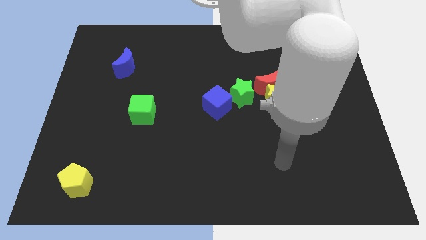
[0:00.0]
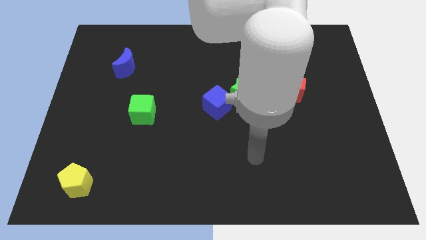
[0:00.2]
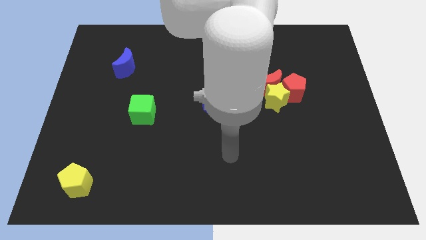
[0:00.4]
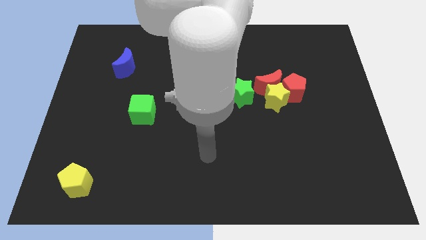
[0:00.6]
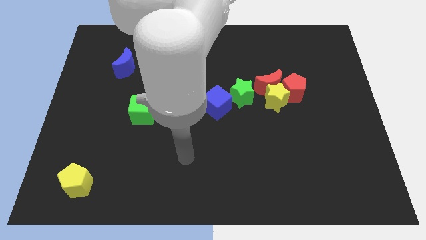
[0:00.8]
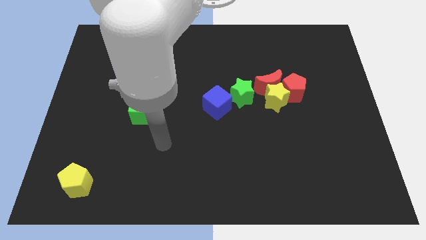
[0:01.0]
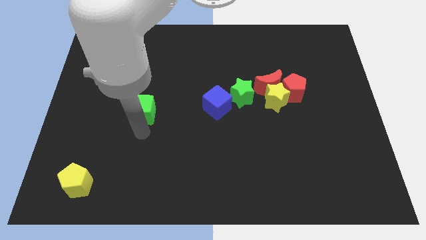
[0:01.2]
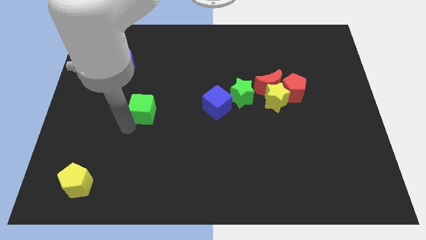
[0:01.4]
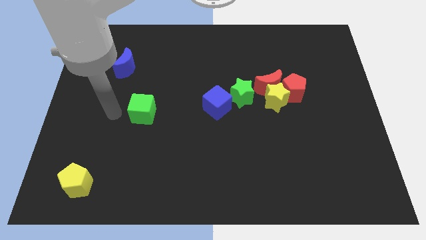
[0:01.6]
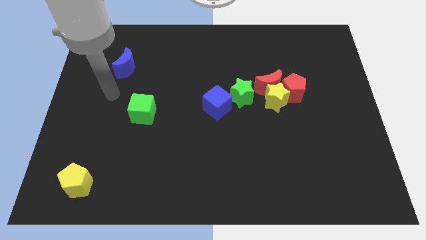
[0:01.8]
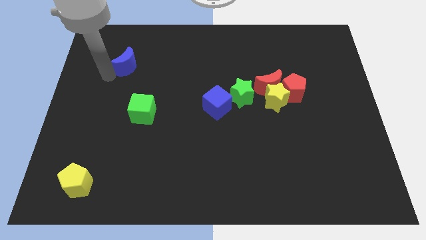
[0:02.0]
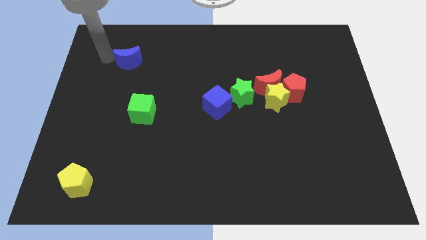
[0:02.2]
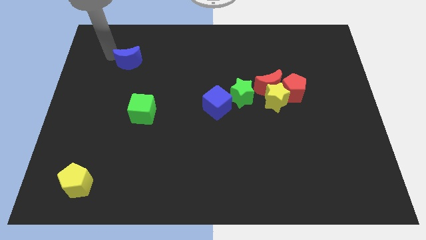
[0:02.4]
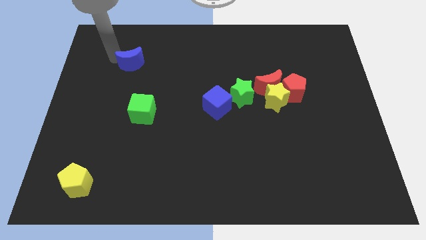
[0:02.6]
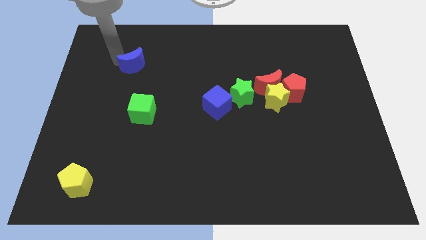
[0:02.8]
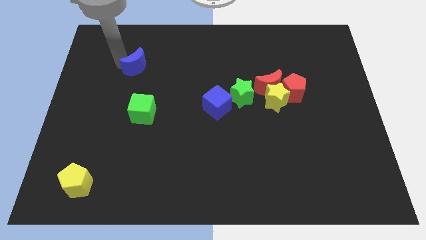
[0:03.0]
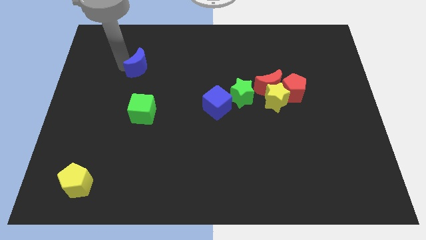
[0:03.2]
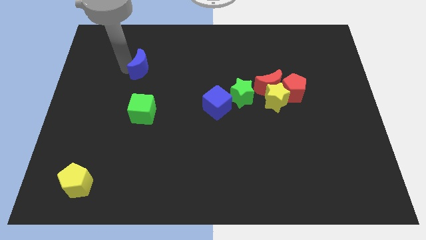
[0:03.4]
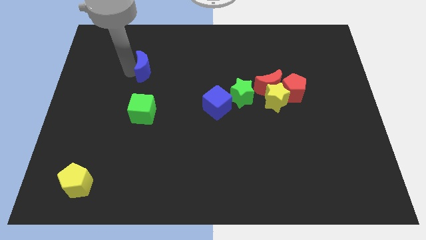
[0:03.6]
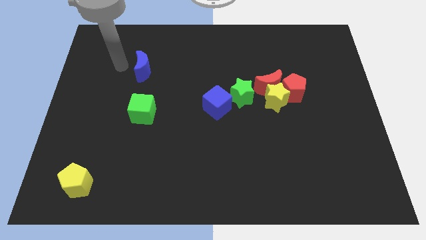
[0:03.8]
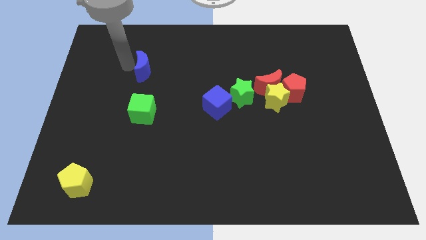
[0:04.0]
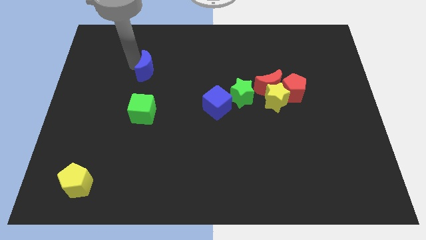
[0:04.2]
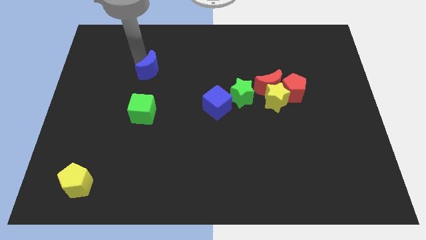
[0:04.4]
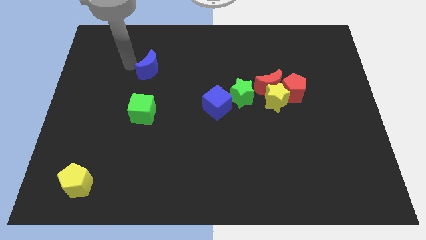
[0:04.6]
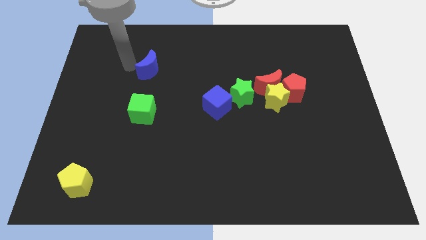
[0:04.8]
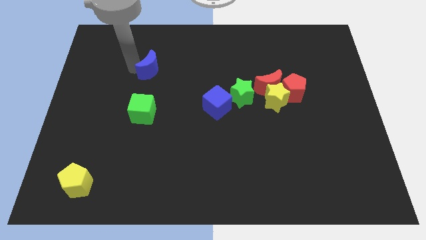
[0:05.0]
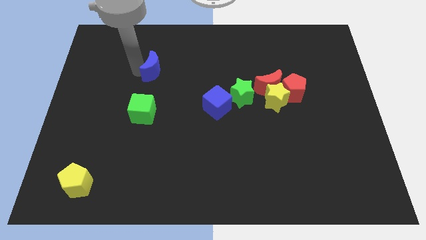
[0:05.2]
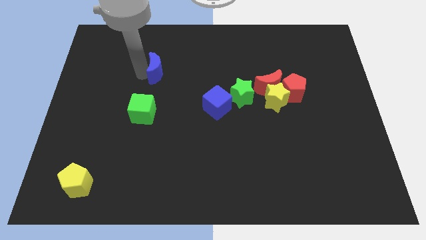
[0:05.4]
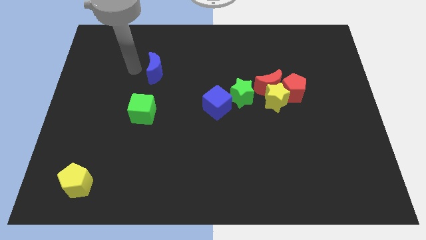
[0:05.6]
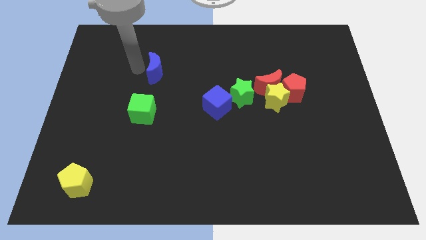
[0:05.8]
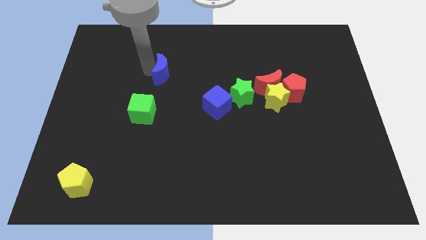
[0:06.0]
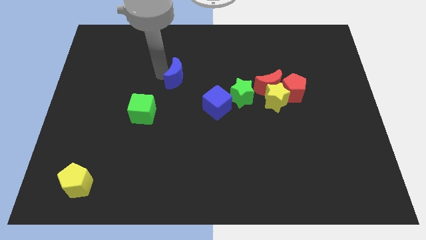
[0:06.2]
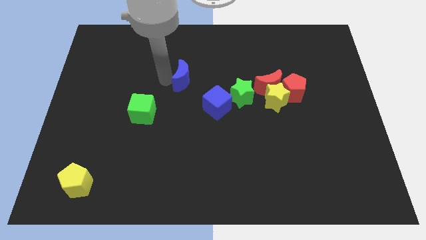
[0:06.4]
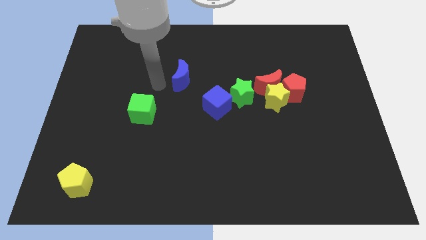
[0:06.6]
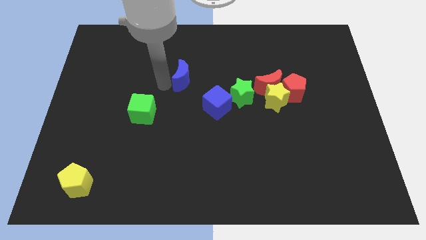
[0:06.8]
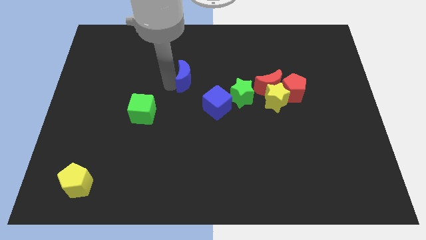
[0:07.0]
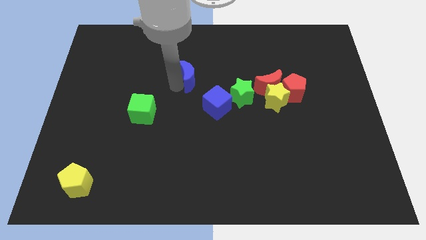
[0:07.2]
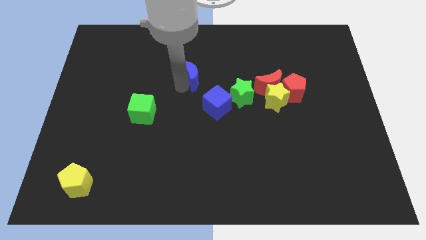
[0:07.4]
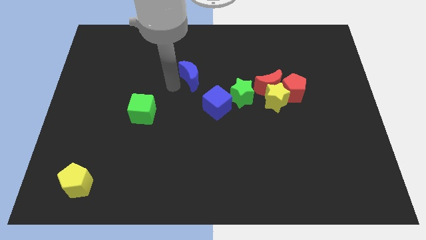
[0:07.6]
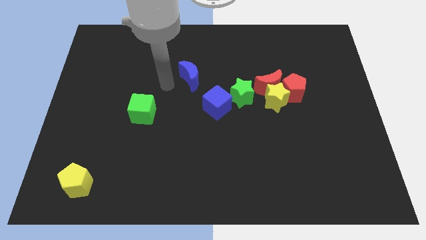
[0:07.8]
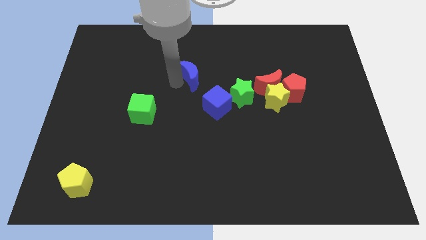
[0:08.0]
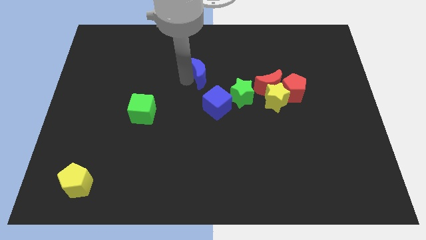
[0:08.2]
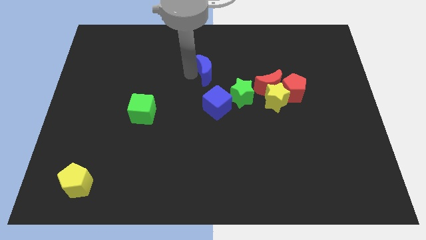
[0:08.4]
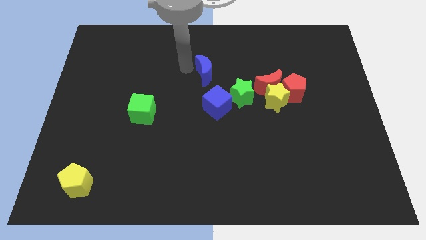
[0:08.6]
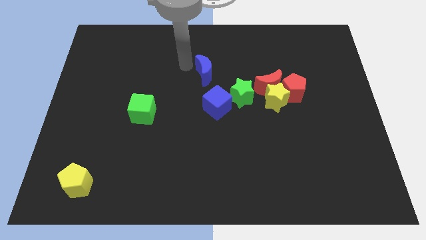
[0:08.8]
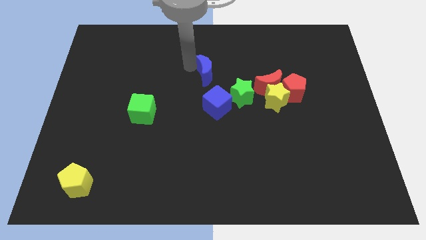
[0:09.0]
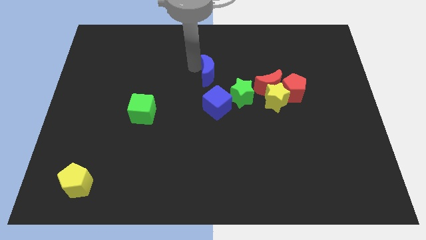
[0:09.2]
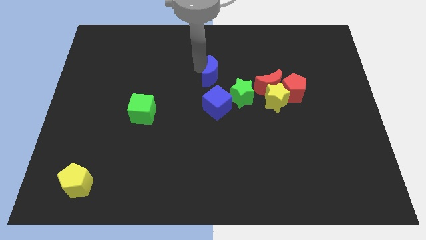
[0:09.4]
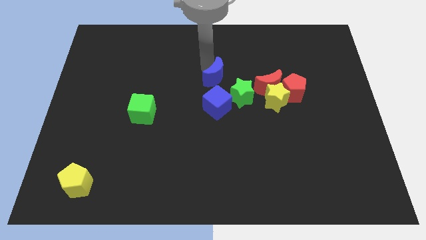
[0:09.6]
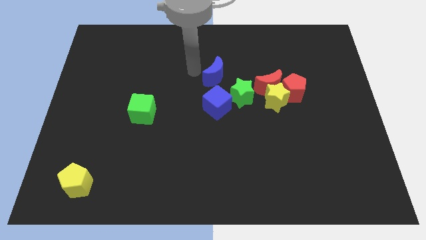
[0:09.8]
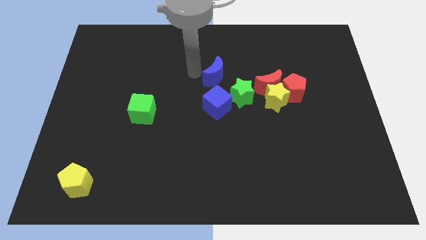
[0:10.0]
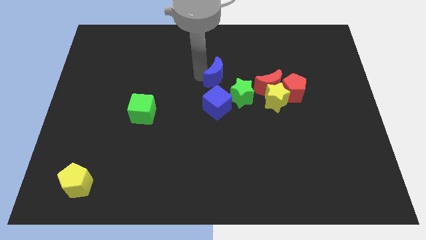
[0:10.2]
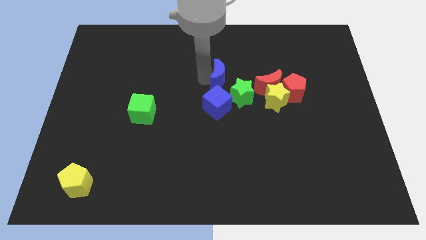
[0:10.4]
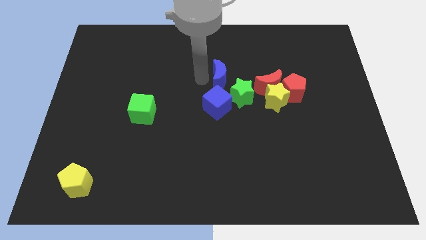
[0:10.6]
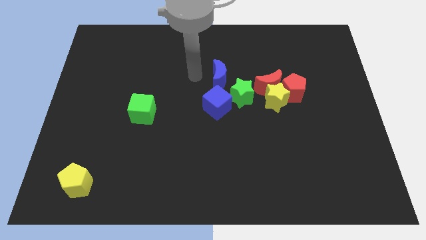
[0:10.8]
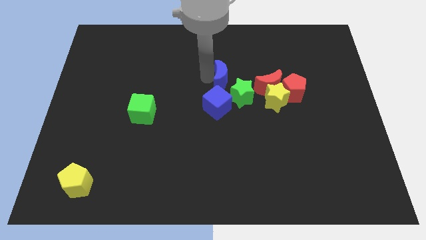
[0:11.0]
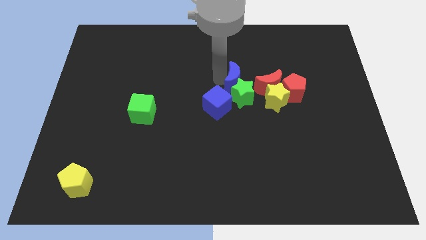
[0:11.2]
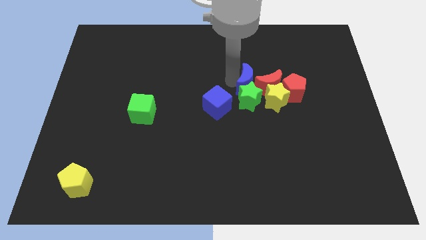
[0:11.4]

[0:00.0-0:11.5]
slide the blue moon to the red moon

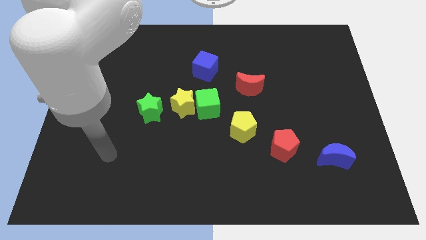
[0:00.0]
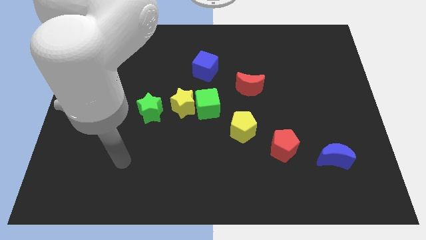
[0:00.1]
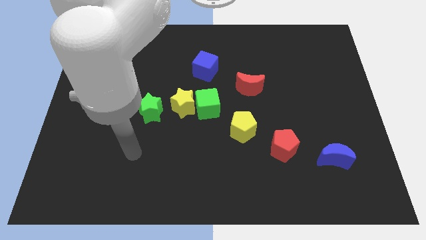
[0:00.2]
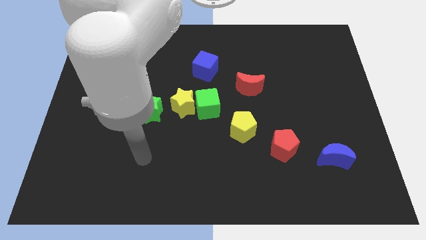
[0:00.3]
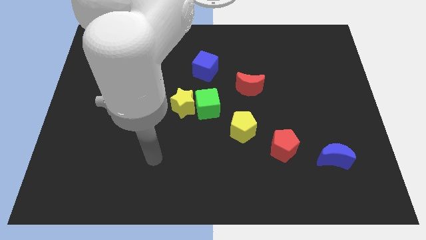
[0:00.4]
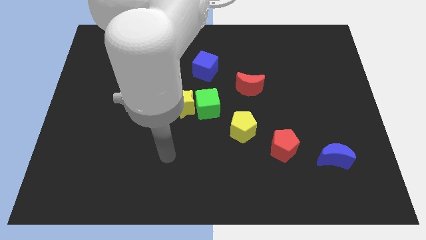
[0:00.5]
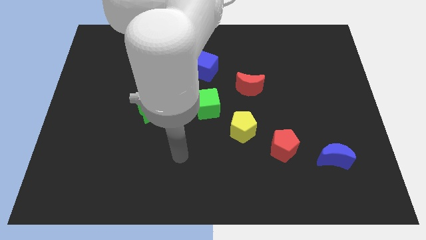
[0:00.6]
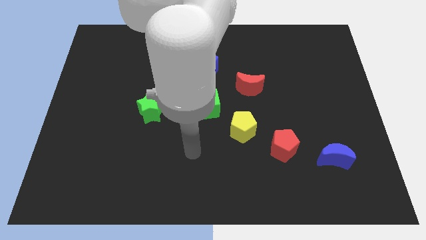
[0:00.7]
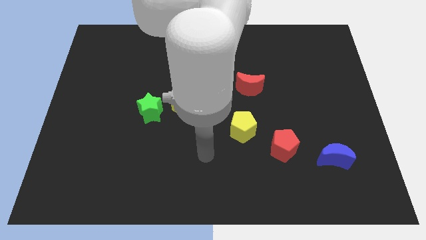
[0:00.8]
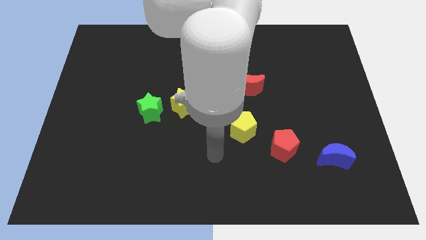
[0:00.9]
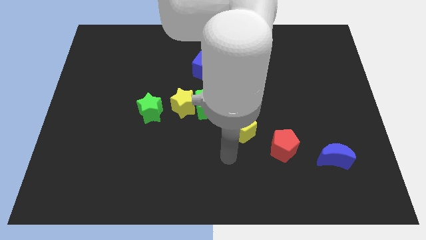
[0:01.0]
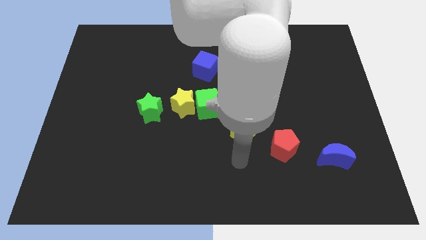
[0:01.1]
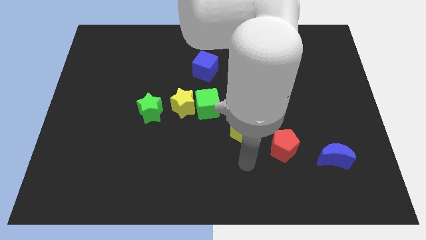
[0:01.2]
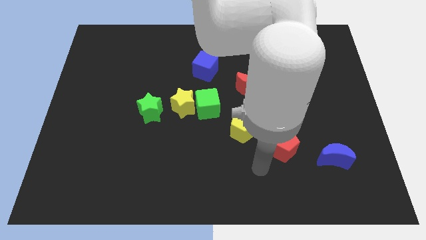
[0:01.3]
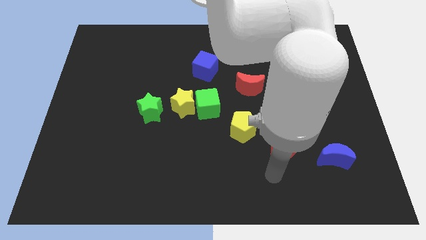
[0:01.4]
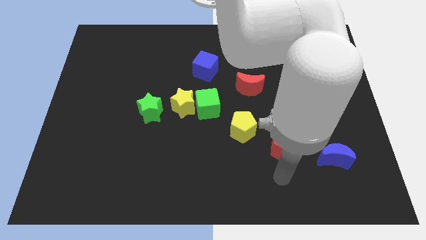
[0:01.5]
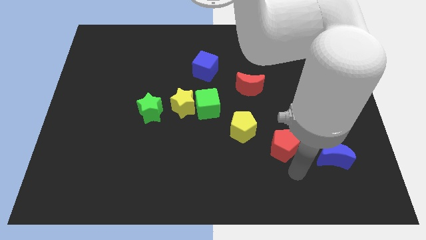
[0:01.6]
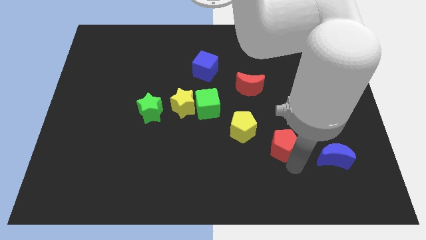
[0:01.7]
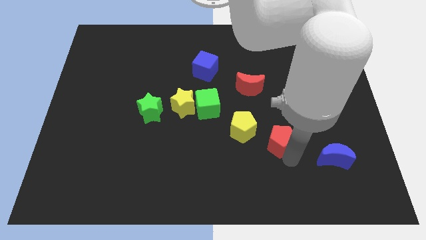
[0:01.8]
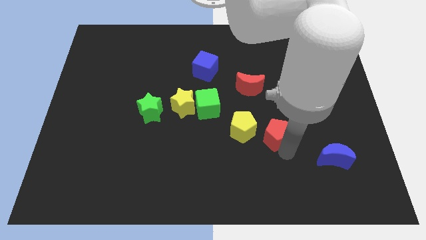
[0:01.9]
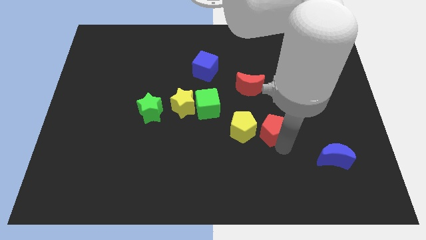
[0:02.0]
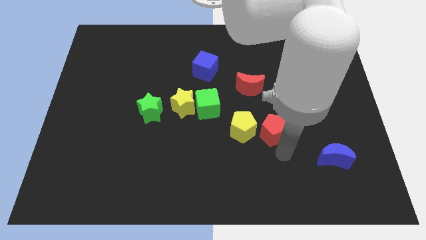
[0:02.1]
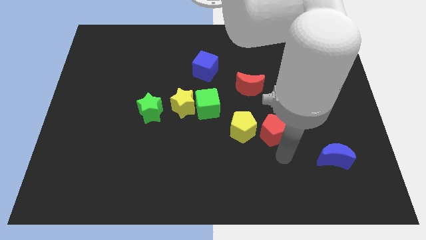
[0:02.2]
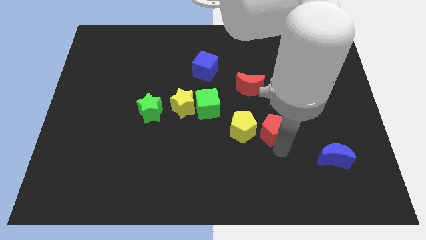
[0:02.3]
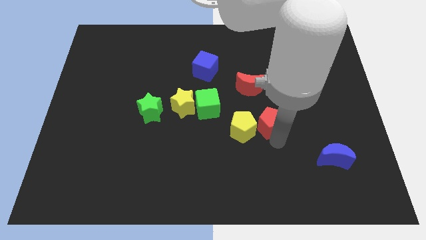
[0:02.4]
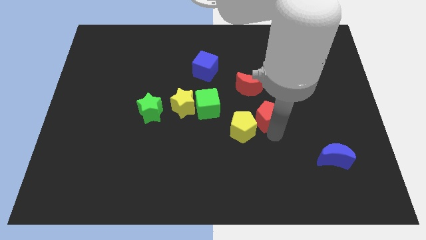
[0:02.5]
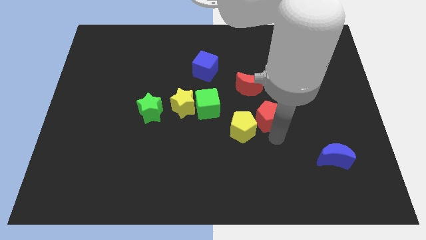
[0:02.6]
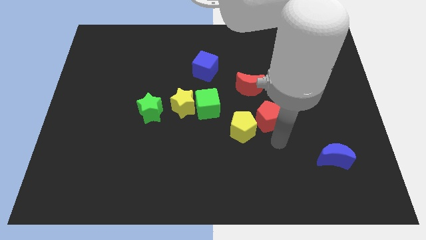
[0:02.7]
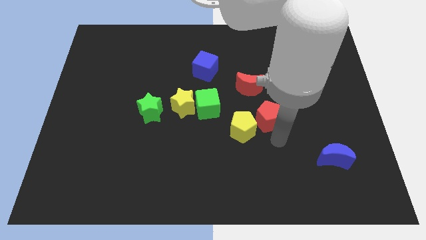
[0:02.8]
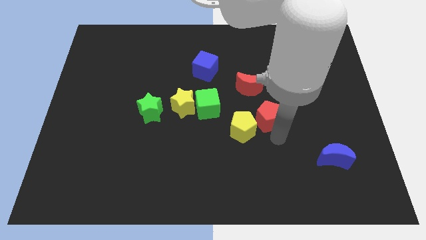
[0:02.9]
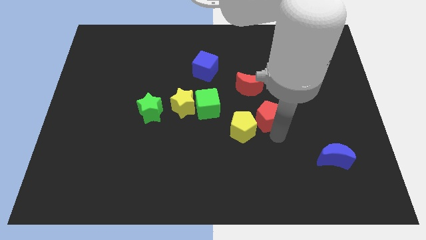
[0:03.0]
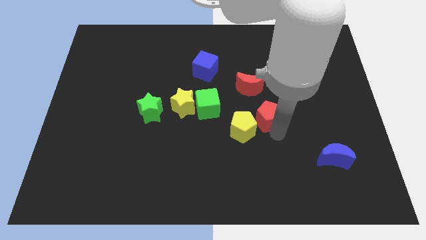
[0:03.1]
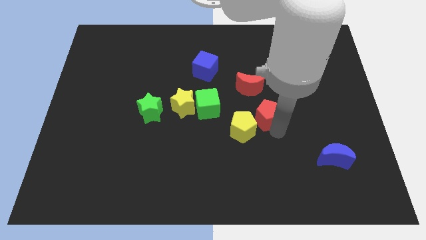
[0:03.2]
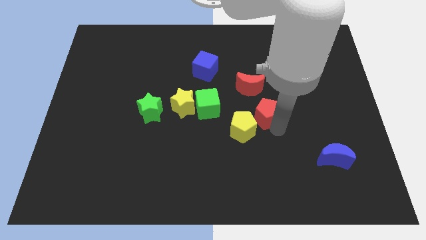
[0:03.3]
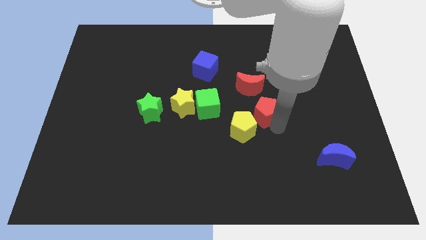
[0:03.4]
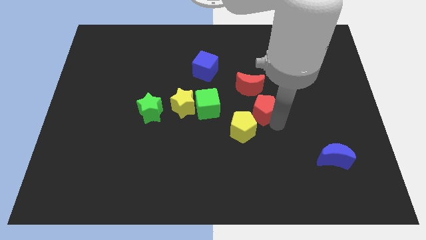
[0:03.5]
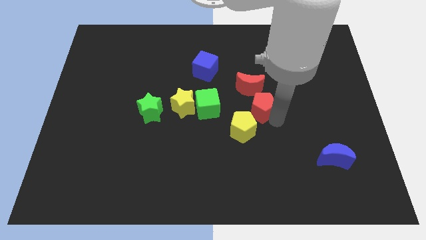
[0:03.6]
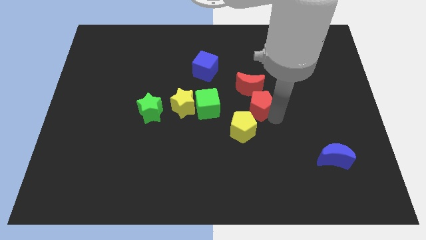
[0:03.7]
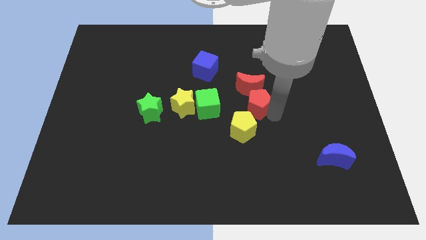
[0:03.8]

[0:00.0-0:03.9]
move the red pentagon to the red moon
